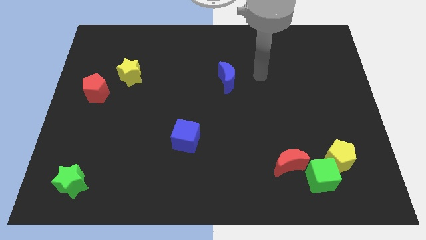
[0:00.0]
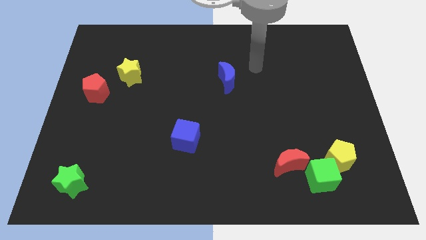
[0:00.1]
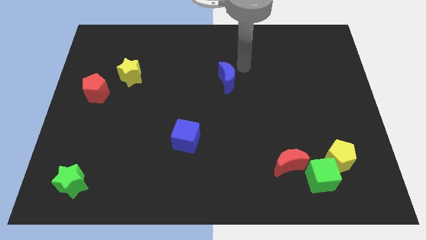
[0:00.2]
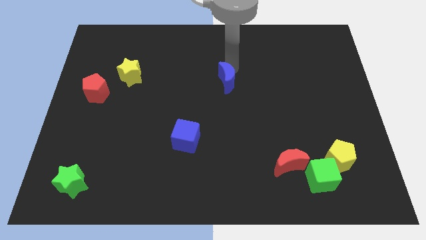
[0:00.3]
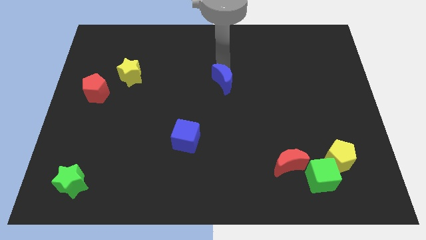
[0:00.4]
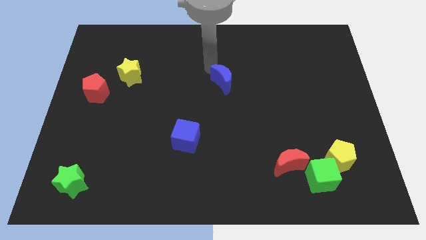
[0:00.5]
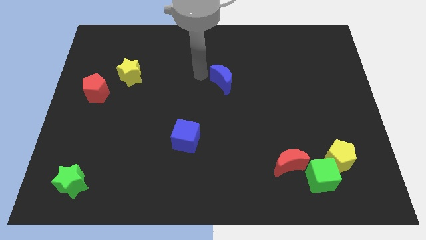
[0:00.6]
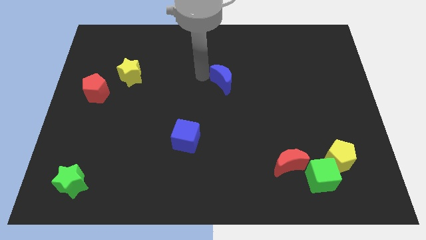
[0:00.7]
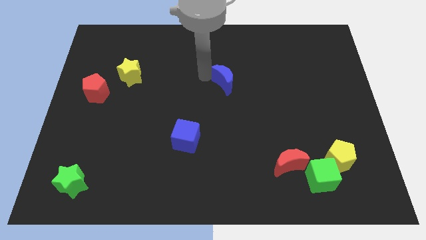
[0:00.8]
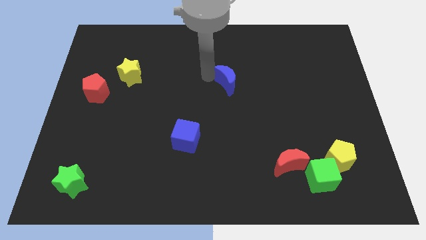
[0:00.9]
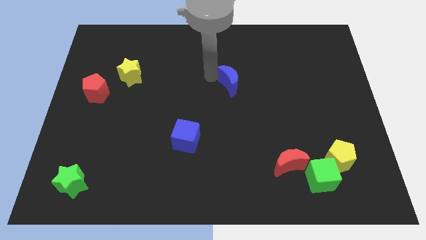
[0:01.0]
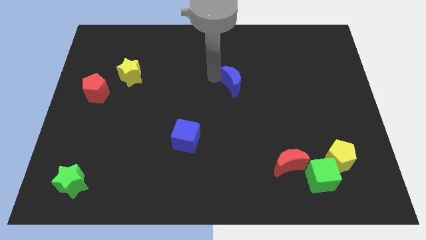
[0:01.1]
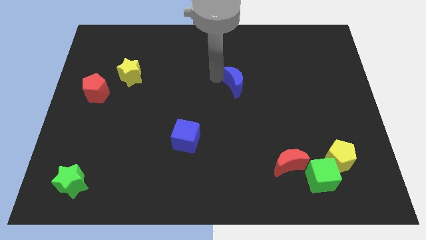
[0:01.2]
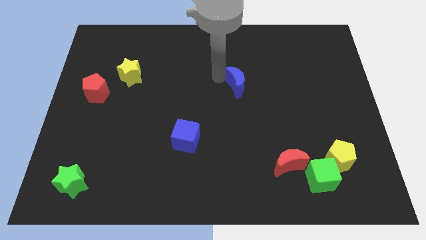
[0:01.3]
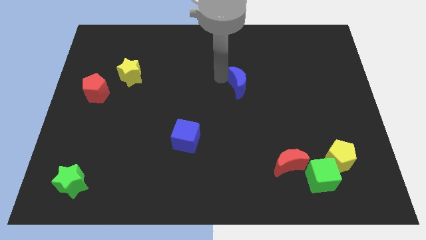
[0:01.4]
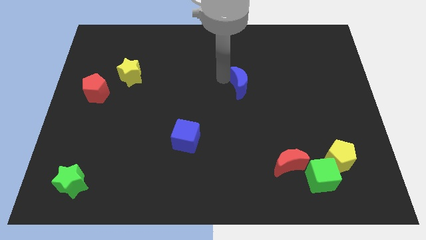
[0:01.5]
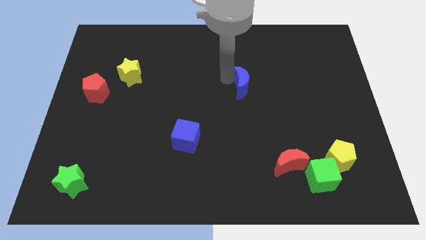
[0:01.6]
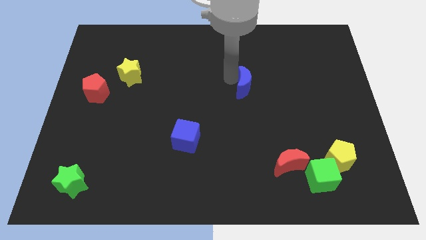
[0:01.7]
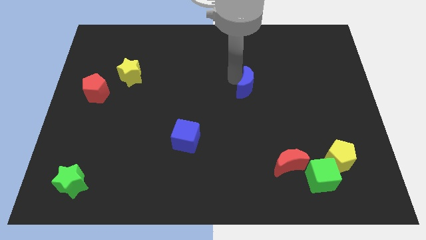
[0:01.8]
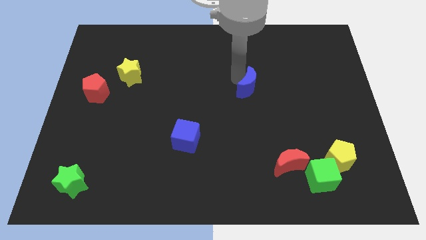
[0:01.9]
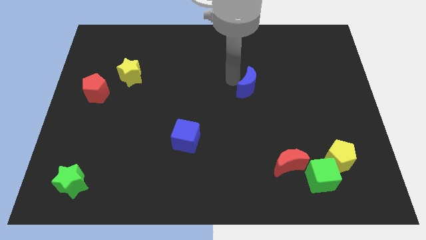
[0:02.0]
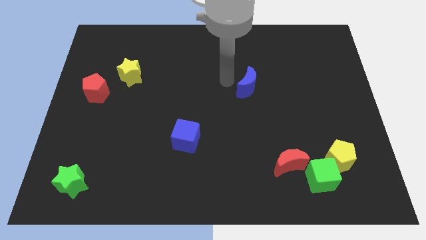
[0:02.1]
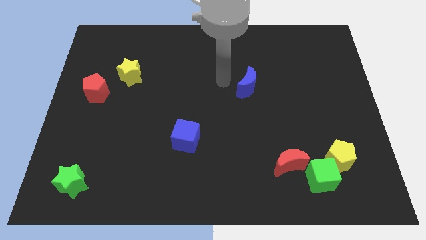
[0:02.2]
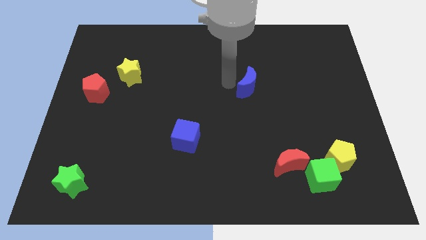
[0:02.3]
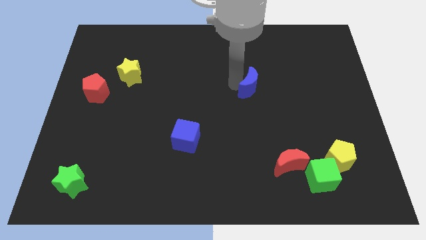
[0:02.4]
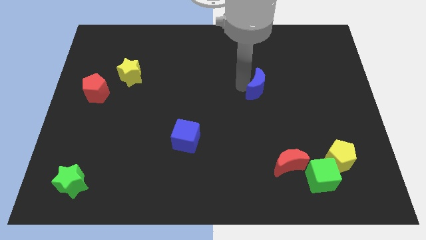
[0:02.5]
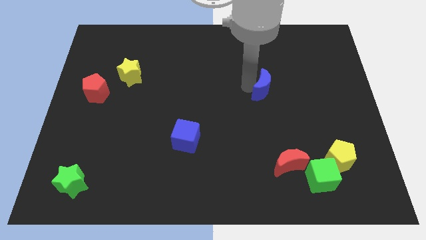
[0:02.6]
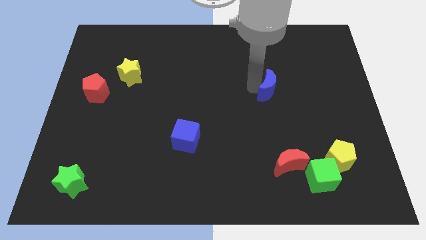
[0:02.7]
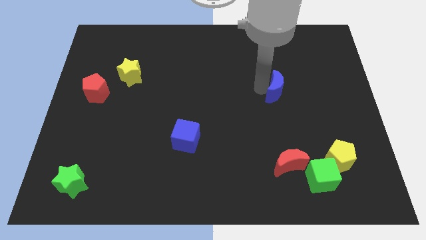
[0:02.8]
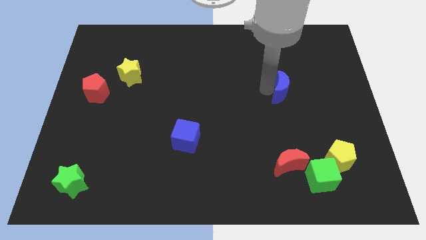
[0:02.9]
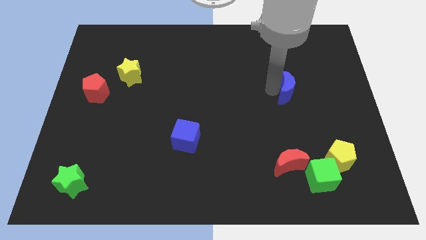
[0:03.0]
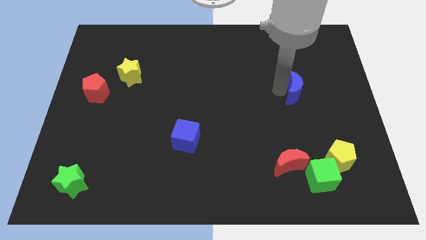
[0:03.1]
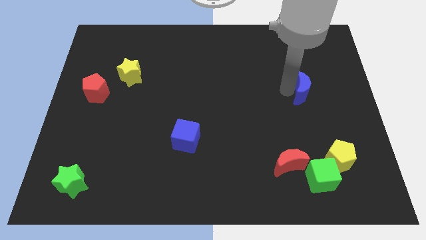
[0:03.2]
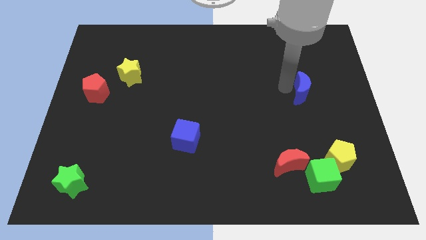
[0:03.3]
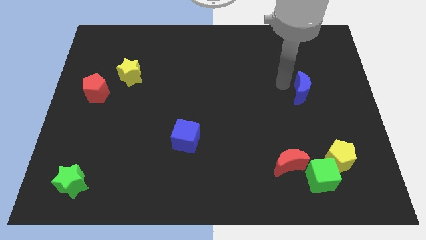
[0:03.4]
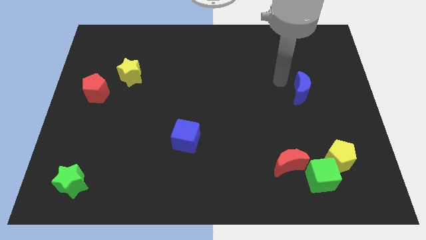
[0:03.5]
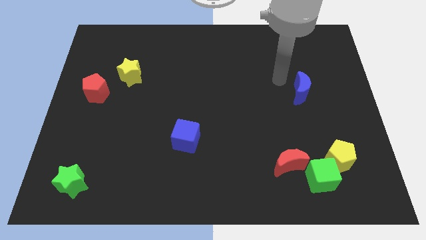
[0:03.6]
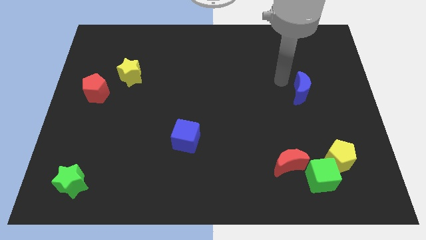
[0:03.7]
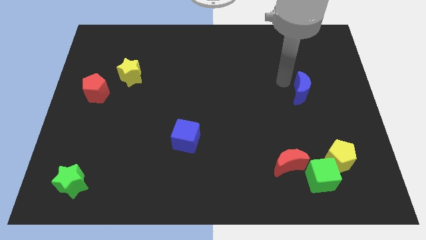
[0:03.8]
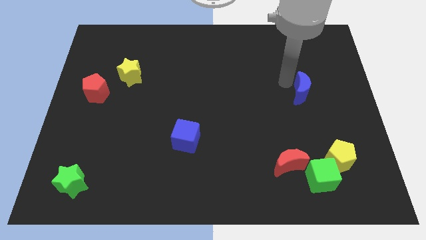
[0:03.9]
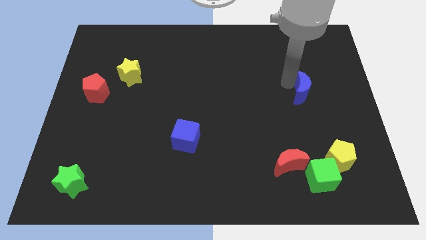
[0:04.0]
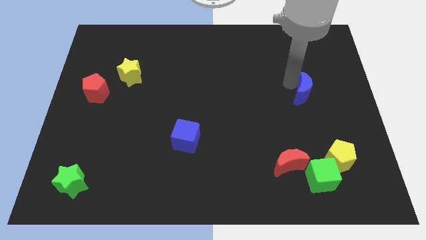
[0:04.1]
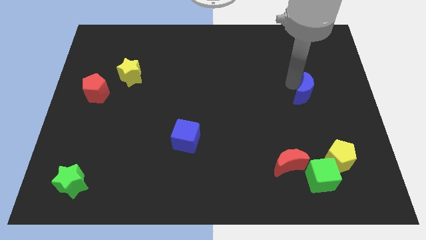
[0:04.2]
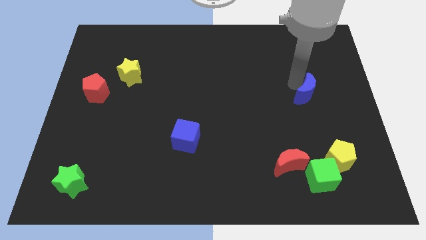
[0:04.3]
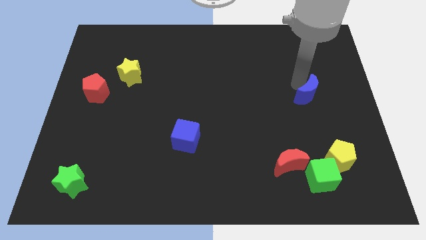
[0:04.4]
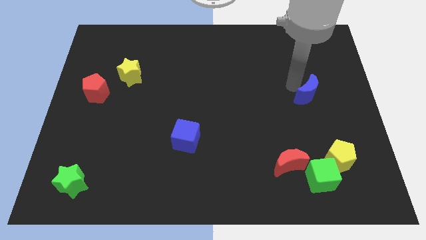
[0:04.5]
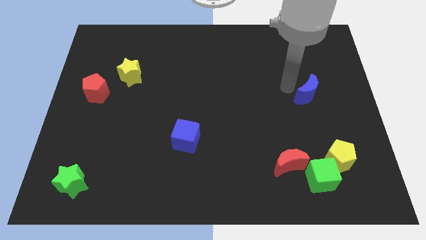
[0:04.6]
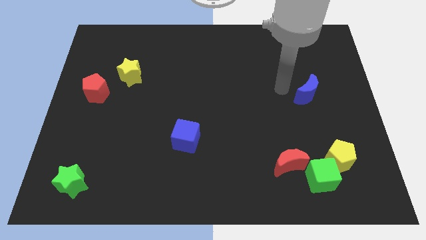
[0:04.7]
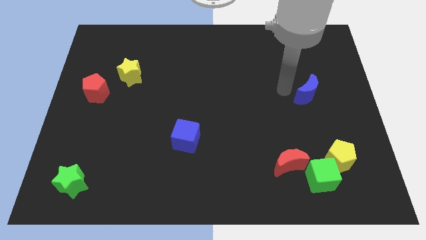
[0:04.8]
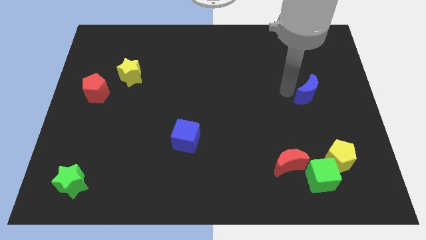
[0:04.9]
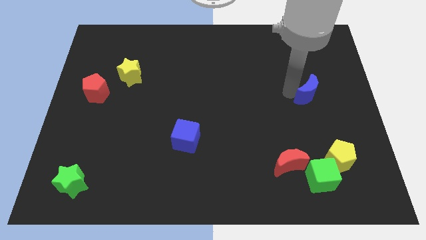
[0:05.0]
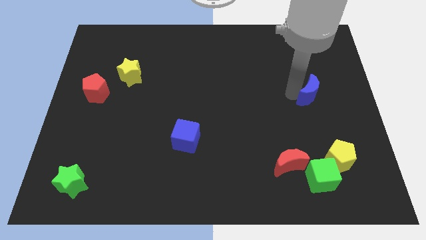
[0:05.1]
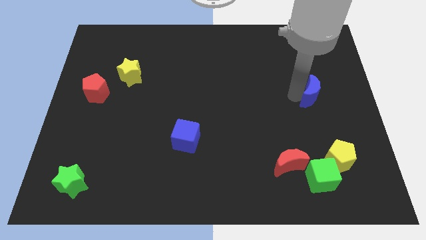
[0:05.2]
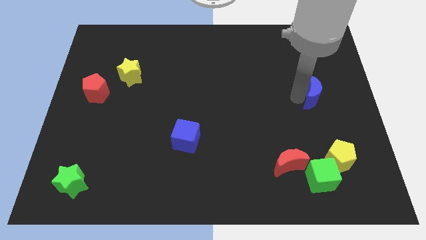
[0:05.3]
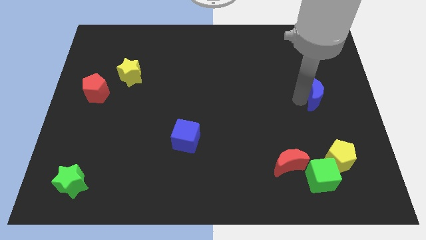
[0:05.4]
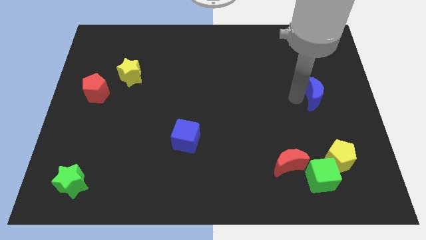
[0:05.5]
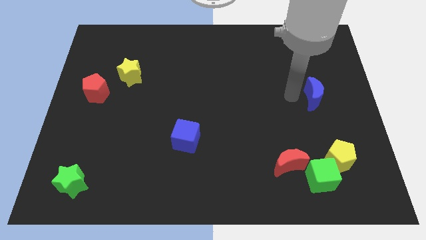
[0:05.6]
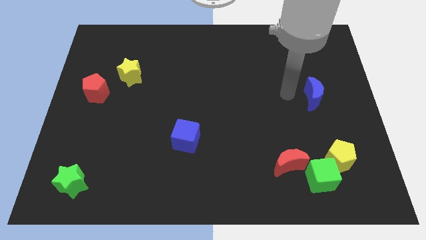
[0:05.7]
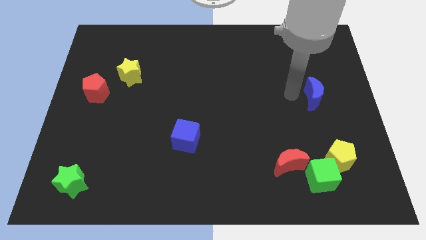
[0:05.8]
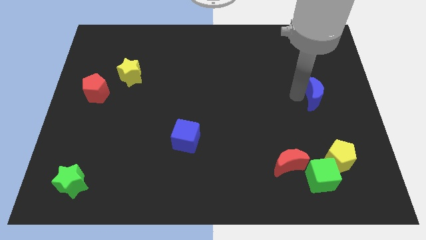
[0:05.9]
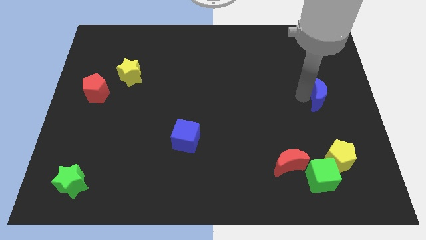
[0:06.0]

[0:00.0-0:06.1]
put the blue moon to the center right

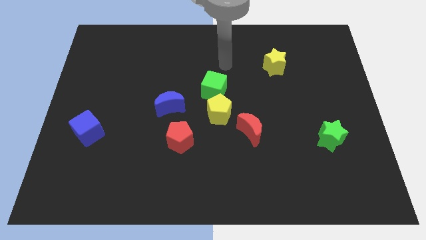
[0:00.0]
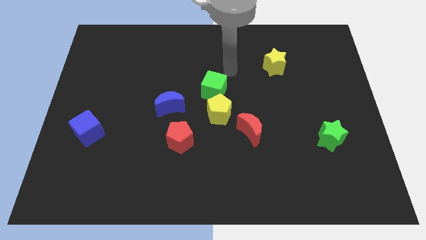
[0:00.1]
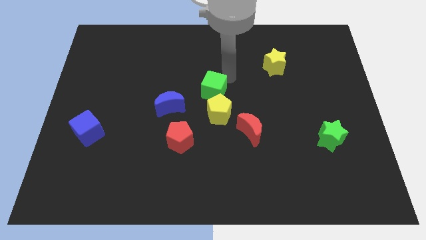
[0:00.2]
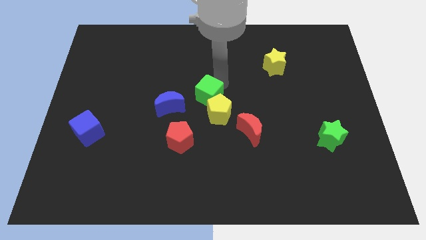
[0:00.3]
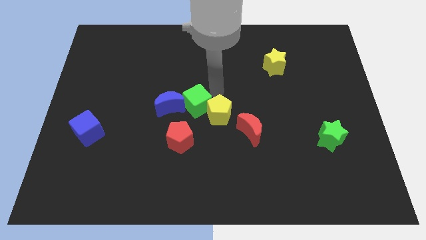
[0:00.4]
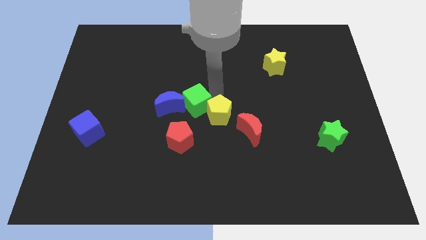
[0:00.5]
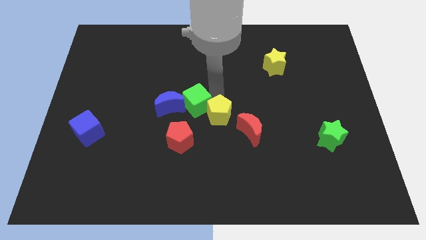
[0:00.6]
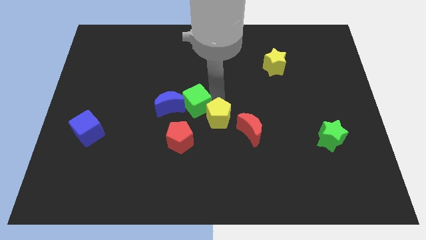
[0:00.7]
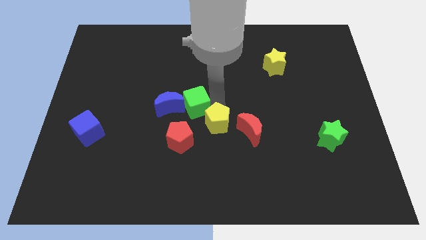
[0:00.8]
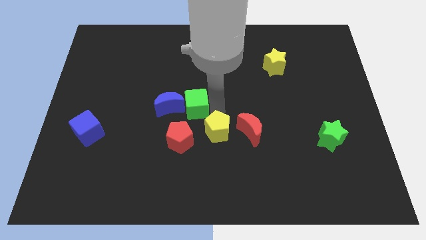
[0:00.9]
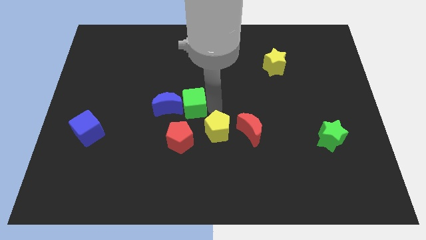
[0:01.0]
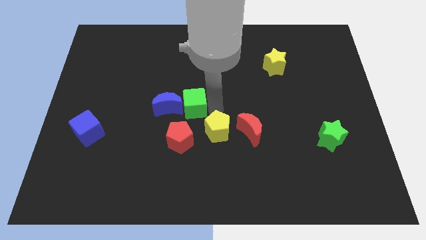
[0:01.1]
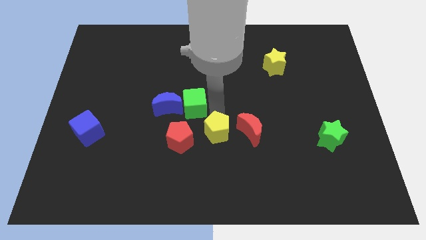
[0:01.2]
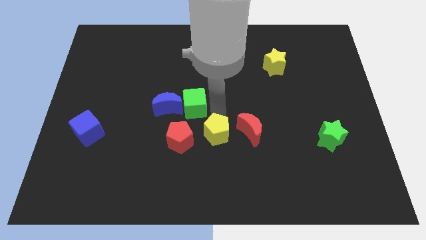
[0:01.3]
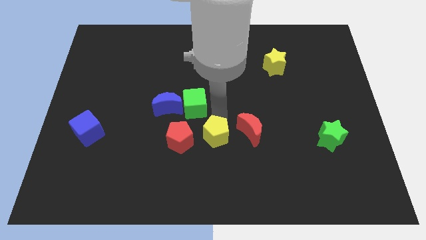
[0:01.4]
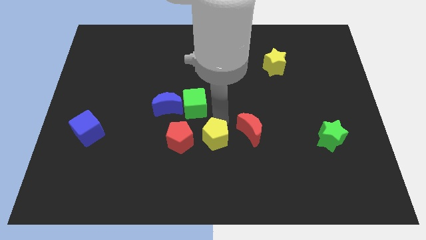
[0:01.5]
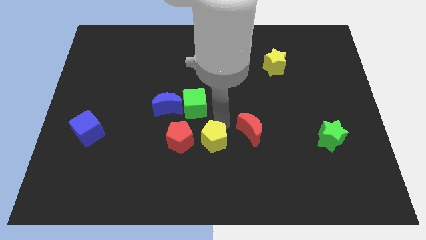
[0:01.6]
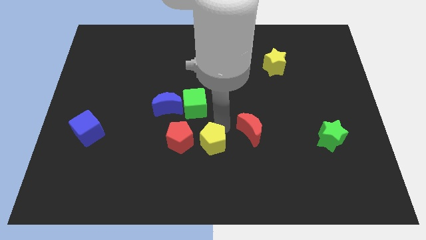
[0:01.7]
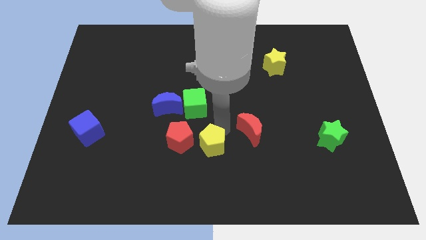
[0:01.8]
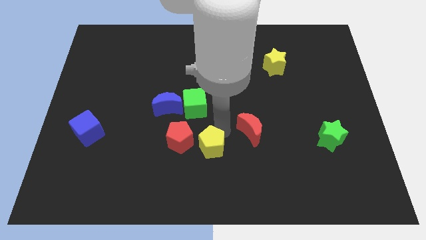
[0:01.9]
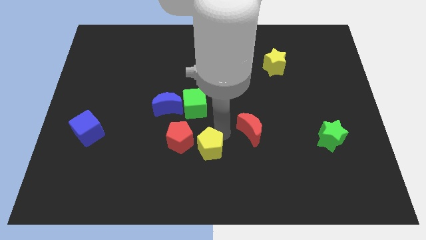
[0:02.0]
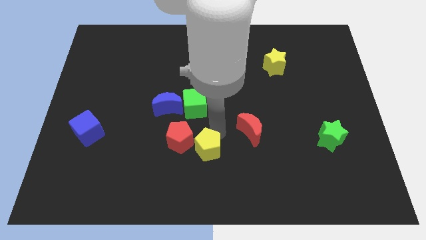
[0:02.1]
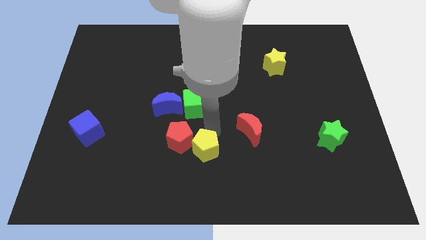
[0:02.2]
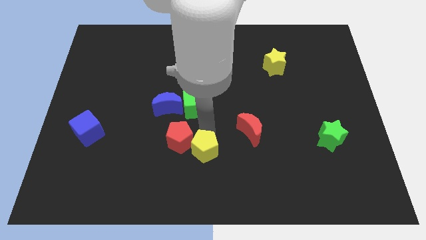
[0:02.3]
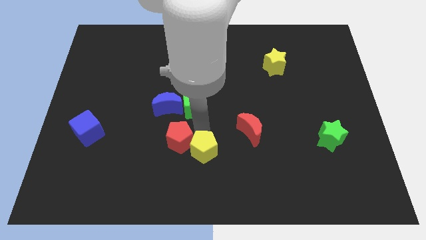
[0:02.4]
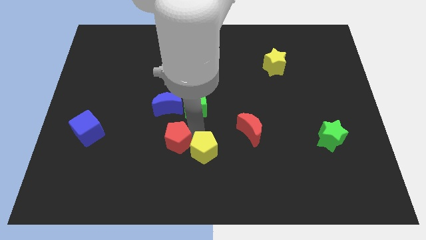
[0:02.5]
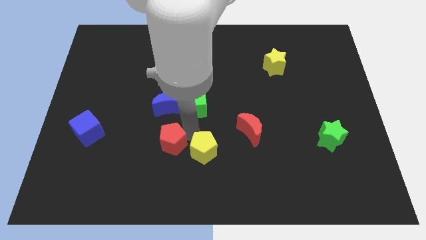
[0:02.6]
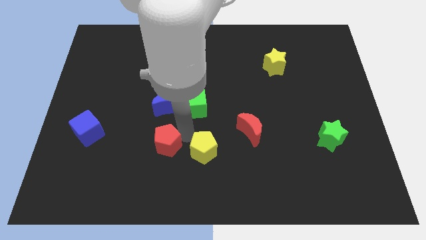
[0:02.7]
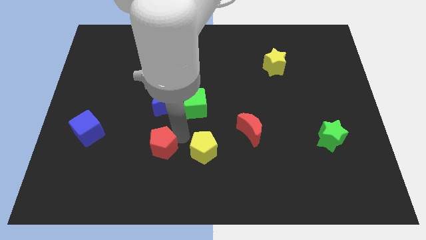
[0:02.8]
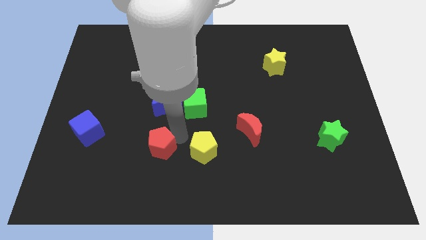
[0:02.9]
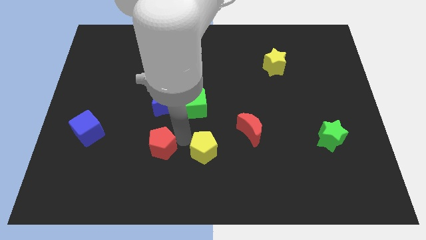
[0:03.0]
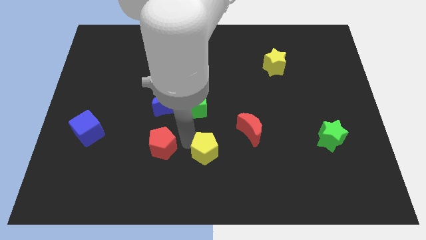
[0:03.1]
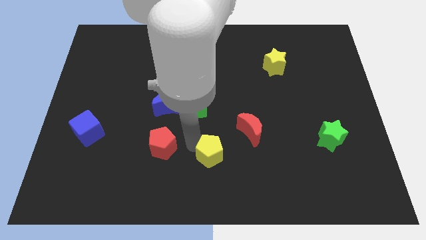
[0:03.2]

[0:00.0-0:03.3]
push the yellow pentagon to the bottom
